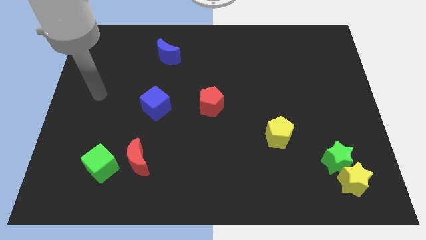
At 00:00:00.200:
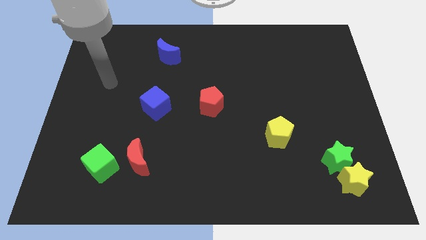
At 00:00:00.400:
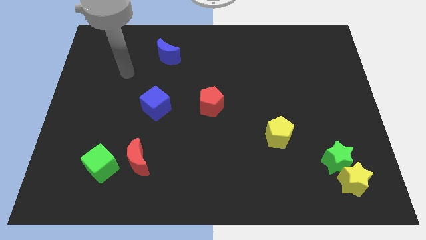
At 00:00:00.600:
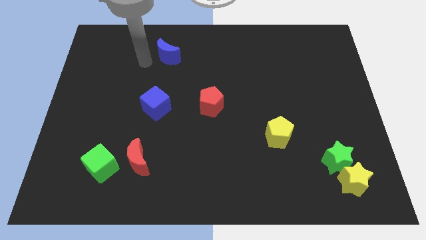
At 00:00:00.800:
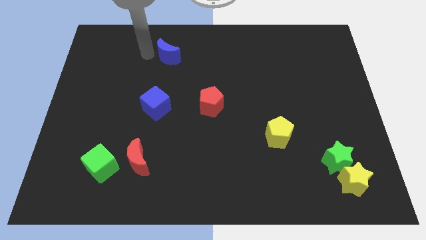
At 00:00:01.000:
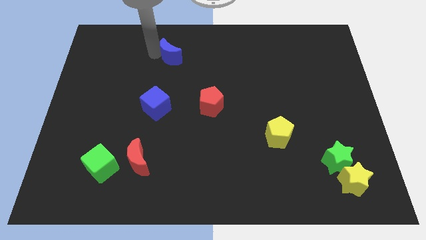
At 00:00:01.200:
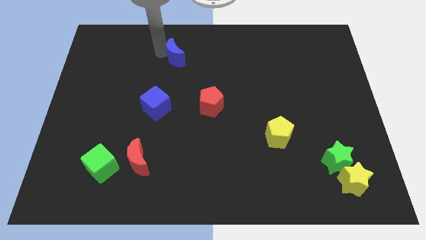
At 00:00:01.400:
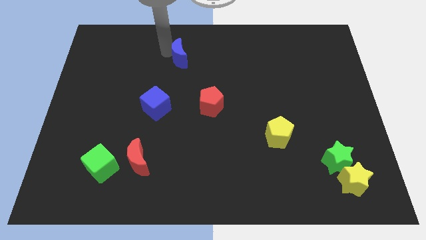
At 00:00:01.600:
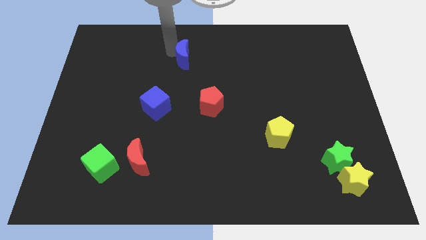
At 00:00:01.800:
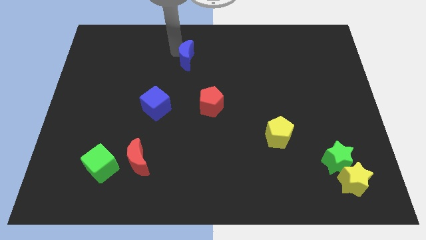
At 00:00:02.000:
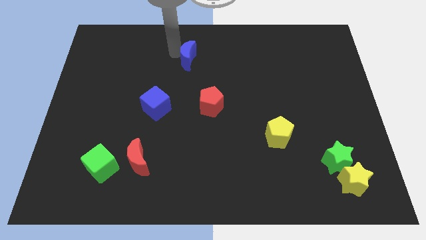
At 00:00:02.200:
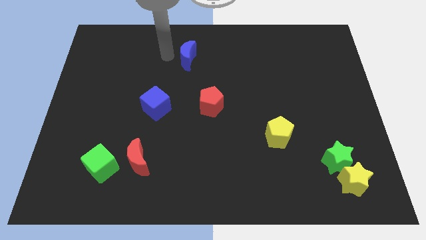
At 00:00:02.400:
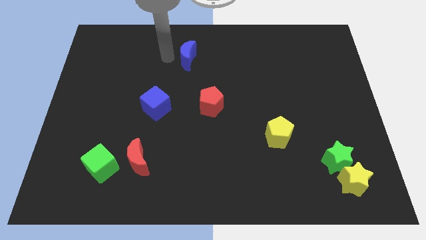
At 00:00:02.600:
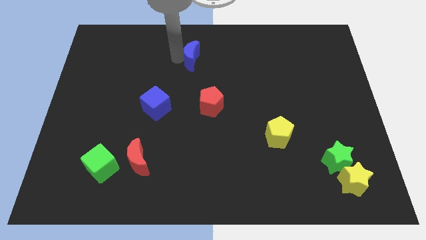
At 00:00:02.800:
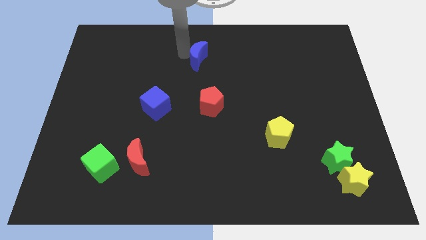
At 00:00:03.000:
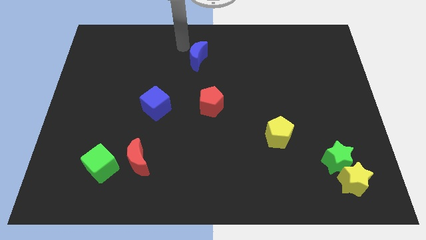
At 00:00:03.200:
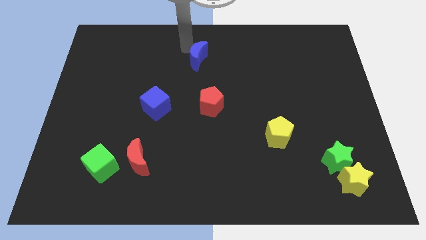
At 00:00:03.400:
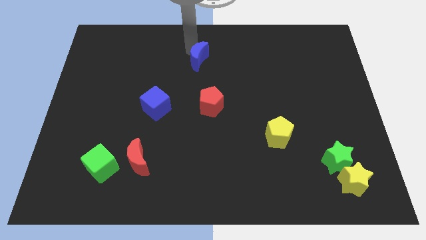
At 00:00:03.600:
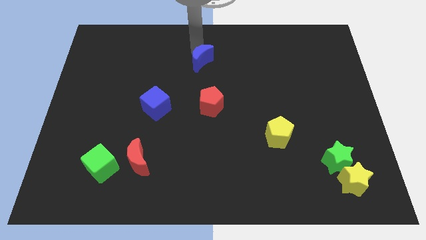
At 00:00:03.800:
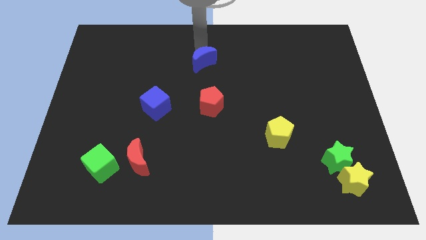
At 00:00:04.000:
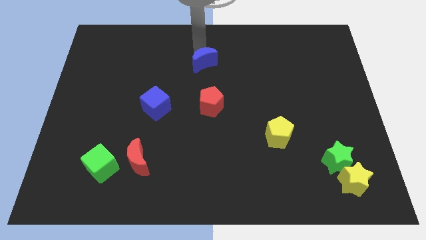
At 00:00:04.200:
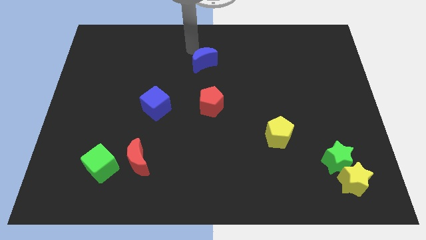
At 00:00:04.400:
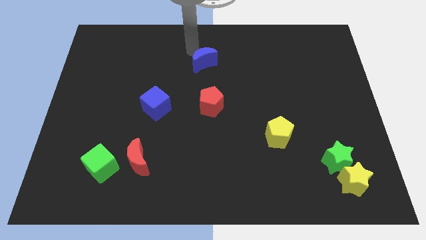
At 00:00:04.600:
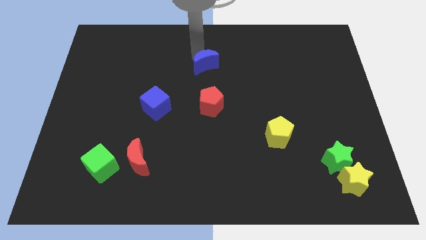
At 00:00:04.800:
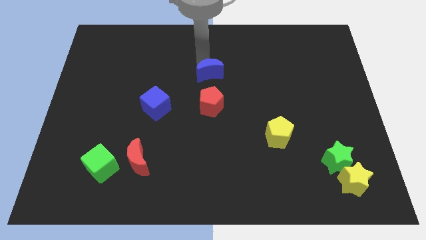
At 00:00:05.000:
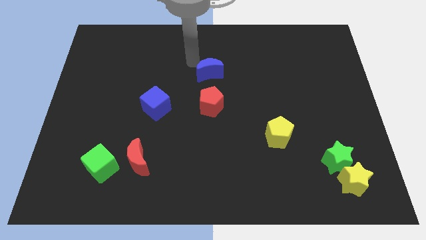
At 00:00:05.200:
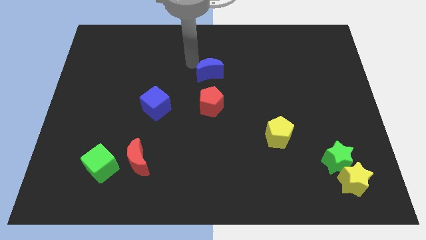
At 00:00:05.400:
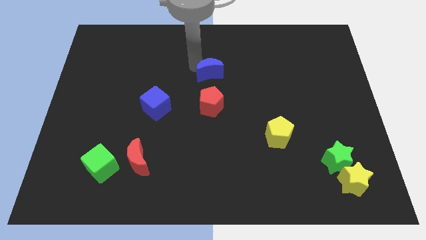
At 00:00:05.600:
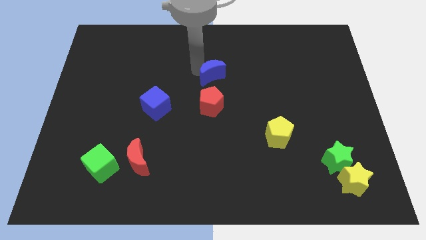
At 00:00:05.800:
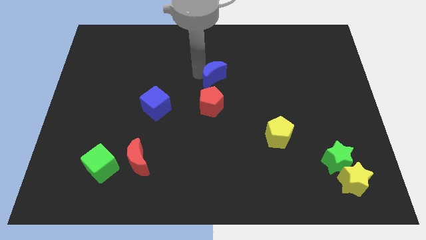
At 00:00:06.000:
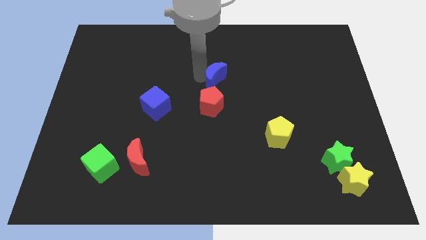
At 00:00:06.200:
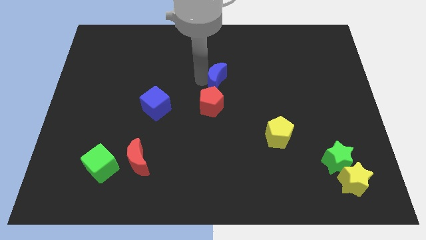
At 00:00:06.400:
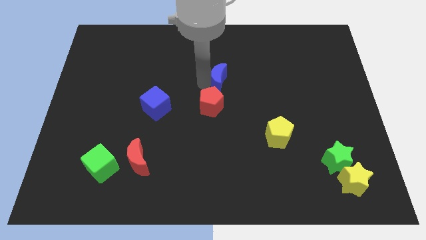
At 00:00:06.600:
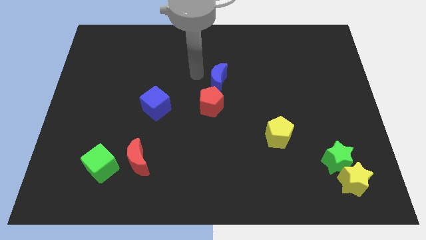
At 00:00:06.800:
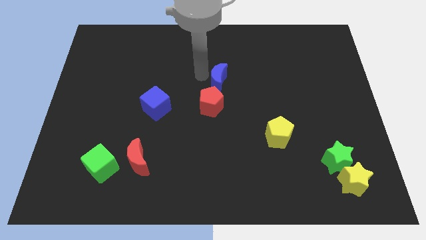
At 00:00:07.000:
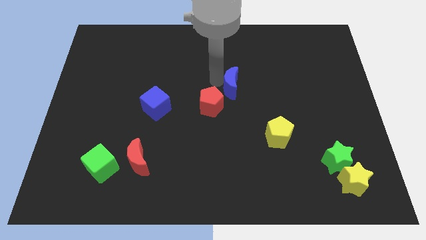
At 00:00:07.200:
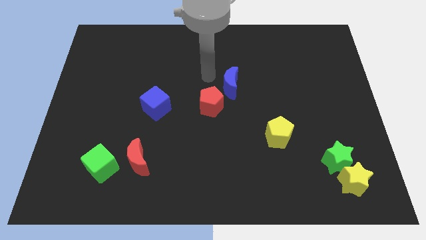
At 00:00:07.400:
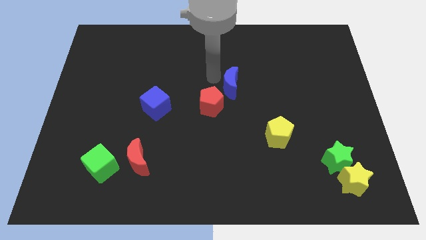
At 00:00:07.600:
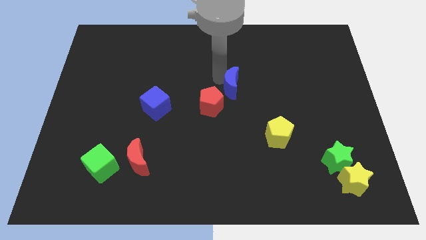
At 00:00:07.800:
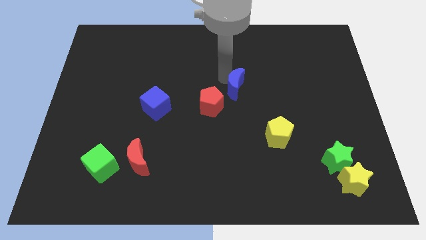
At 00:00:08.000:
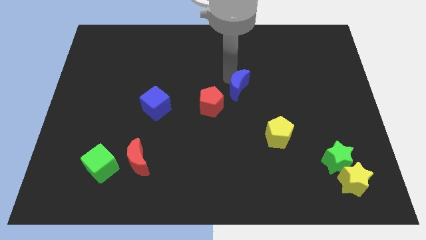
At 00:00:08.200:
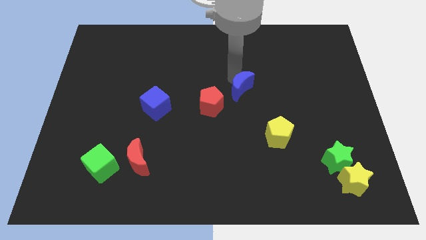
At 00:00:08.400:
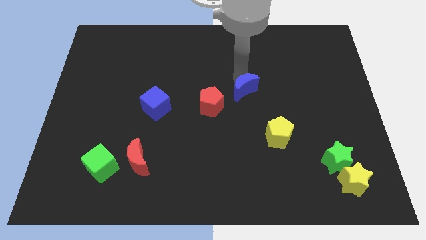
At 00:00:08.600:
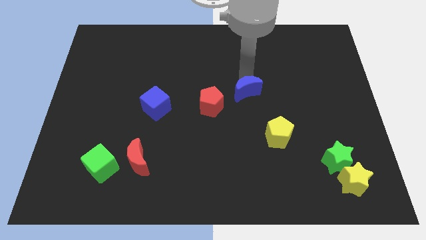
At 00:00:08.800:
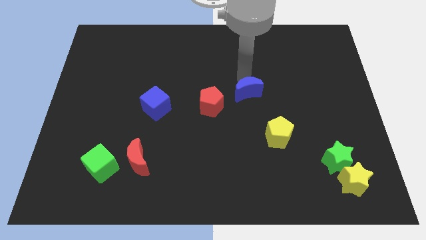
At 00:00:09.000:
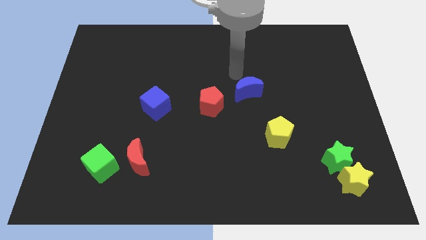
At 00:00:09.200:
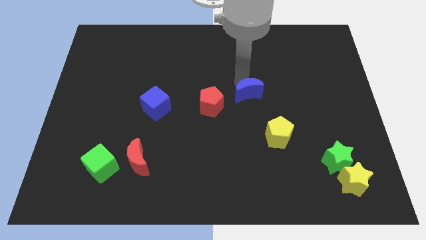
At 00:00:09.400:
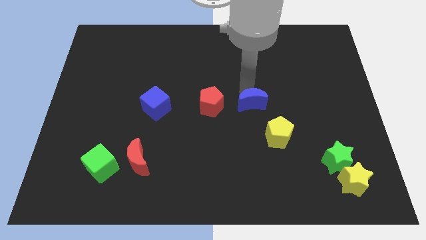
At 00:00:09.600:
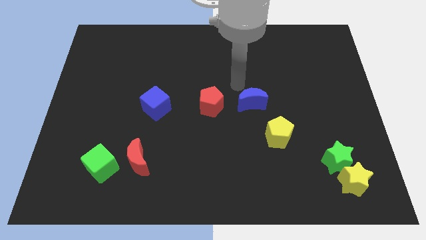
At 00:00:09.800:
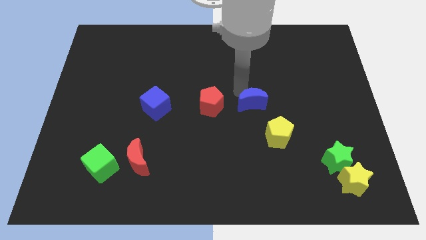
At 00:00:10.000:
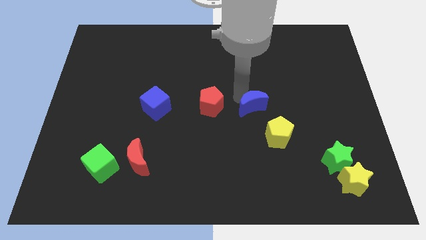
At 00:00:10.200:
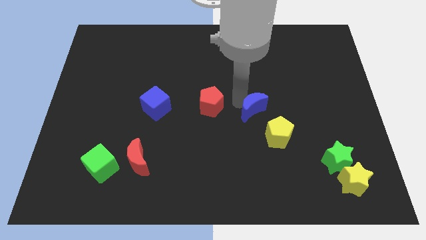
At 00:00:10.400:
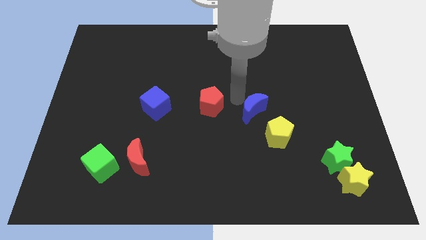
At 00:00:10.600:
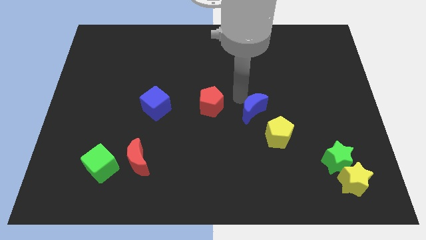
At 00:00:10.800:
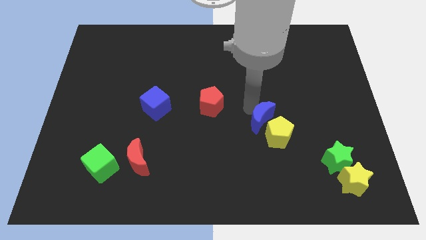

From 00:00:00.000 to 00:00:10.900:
put the blue moon next to the yellow pentagon

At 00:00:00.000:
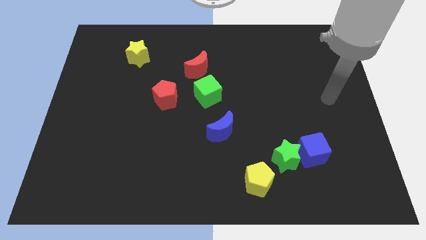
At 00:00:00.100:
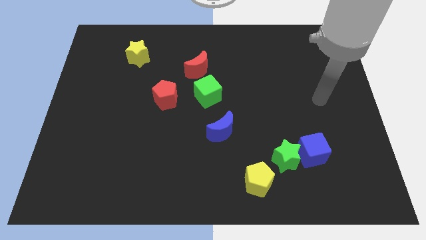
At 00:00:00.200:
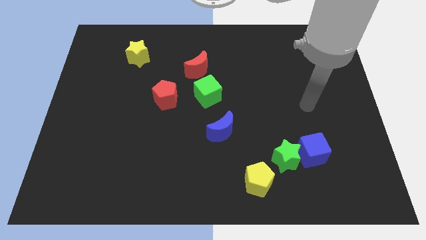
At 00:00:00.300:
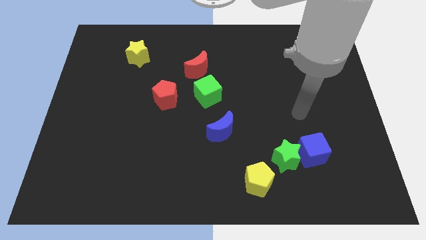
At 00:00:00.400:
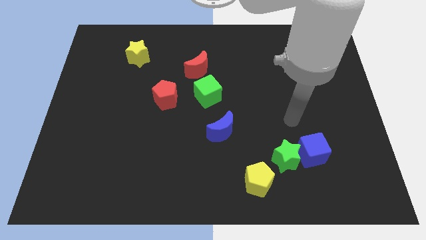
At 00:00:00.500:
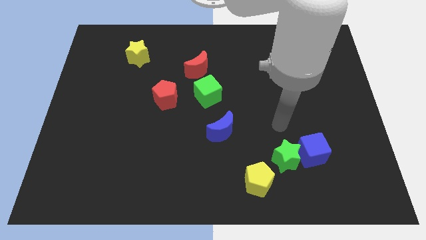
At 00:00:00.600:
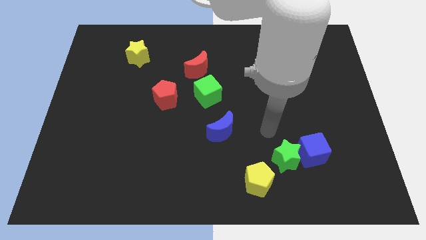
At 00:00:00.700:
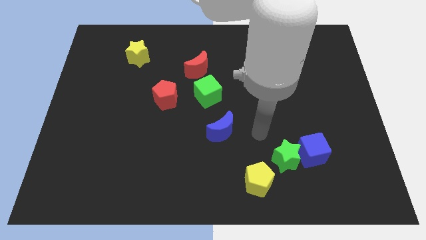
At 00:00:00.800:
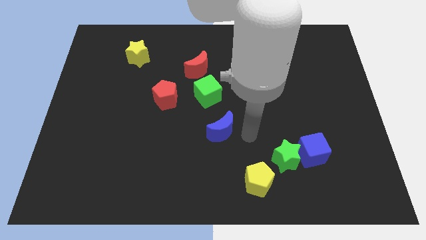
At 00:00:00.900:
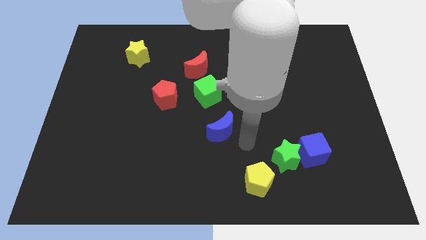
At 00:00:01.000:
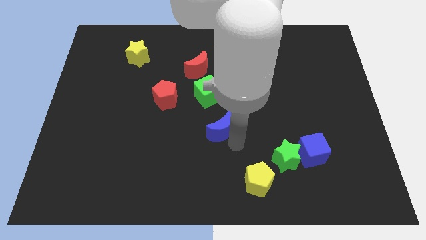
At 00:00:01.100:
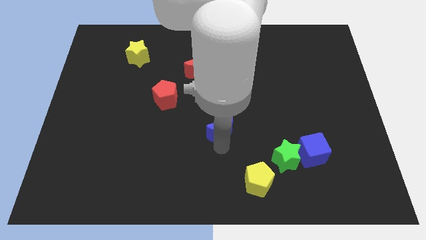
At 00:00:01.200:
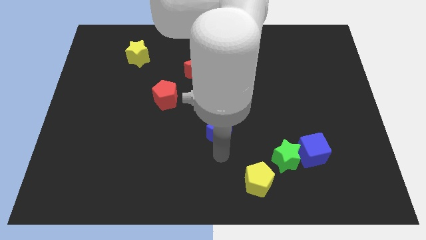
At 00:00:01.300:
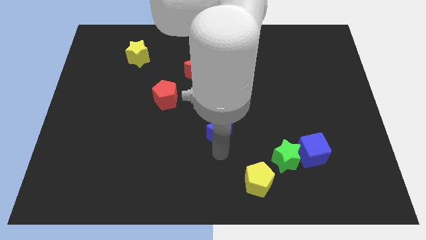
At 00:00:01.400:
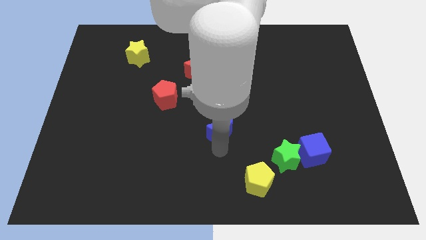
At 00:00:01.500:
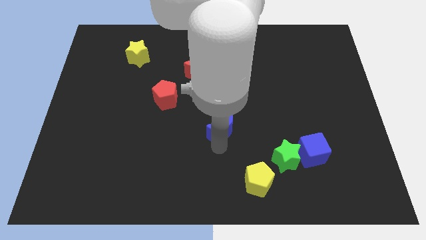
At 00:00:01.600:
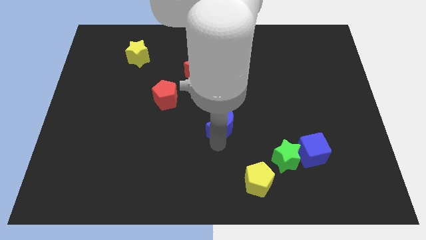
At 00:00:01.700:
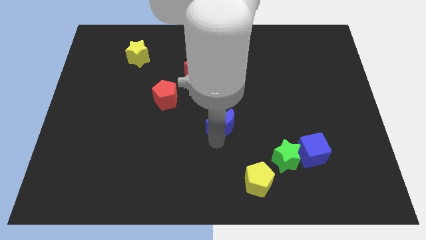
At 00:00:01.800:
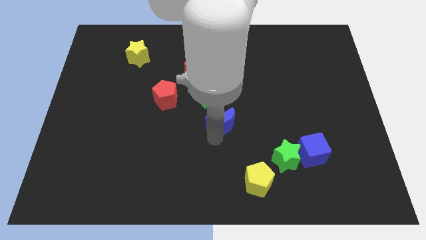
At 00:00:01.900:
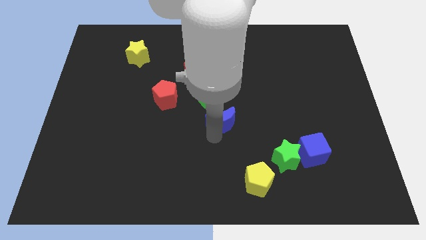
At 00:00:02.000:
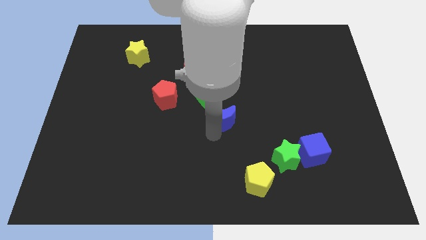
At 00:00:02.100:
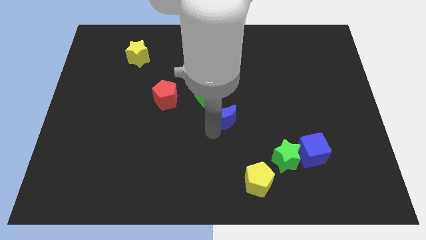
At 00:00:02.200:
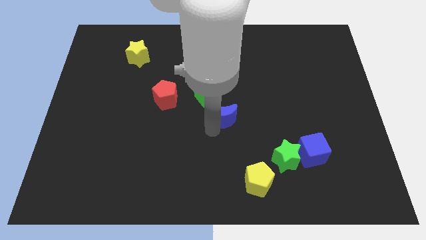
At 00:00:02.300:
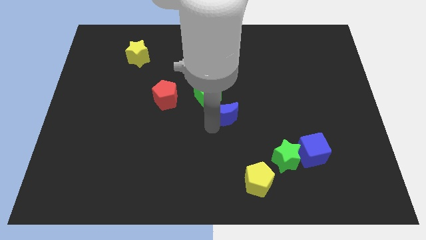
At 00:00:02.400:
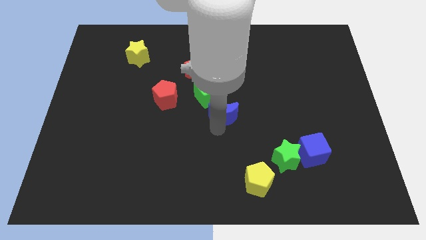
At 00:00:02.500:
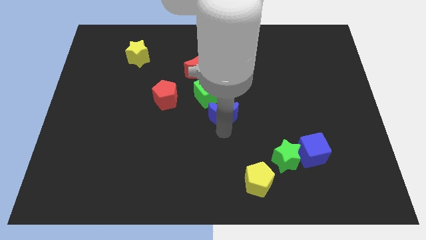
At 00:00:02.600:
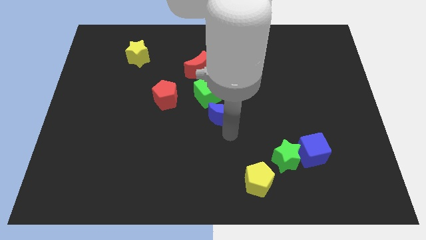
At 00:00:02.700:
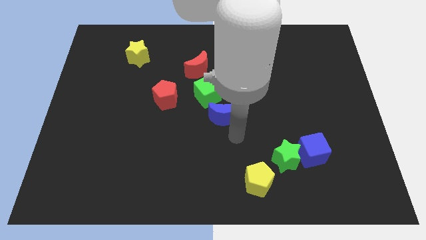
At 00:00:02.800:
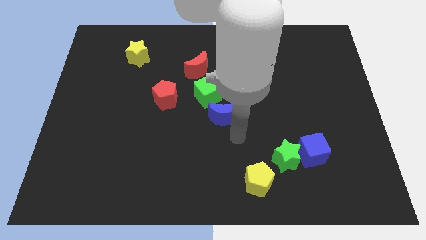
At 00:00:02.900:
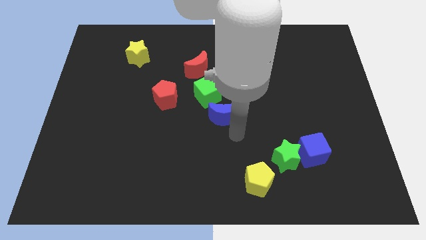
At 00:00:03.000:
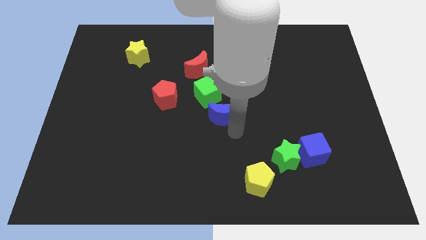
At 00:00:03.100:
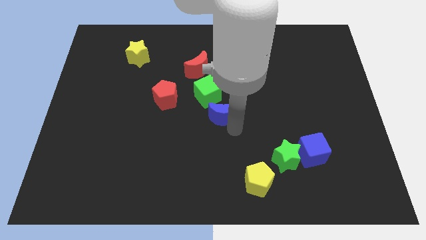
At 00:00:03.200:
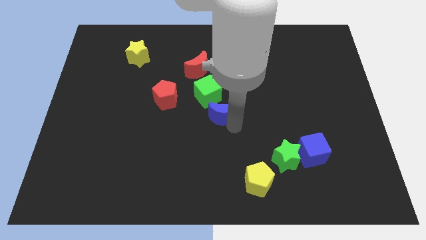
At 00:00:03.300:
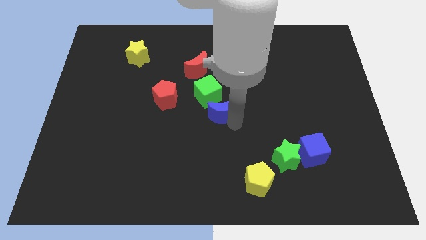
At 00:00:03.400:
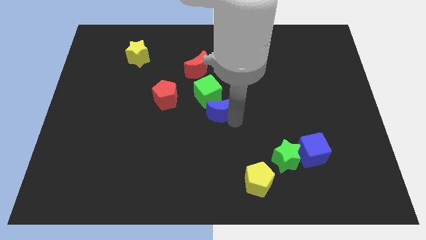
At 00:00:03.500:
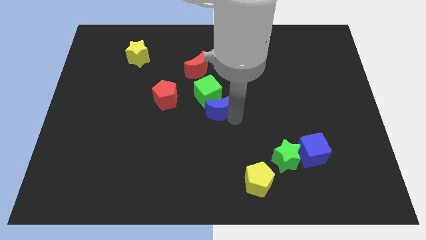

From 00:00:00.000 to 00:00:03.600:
slide the blue moon towards the green cube
